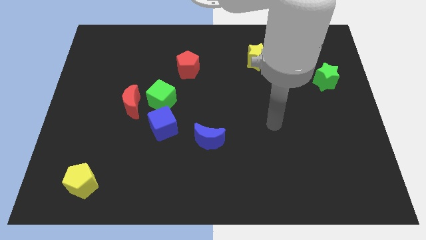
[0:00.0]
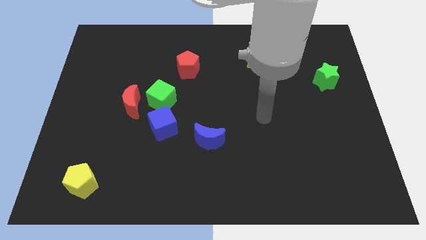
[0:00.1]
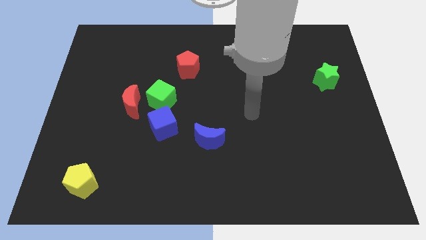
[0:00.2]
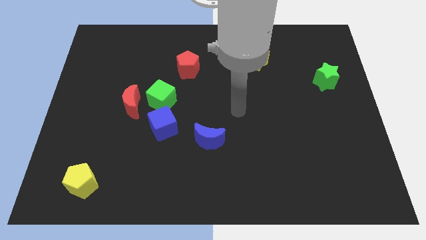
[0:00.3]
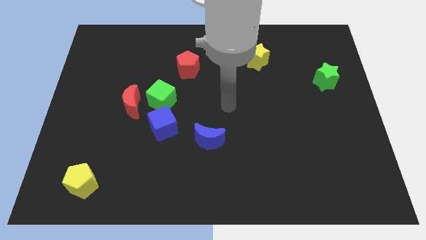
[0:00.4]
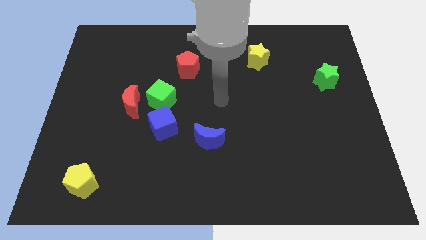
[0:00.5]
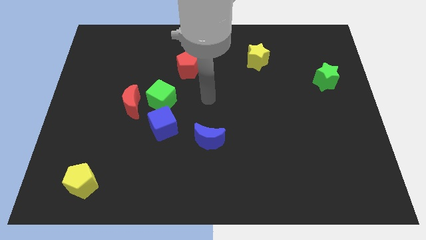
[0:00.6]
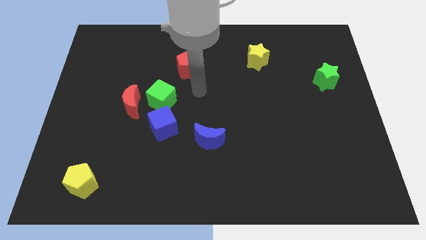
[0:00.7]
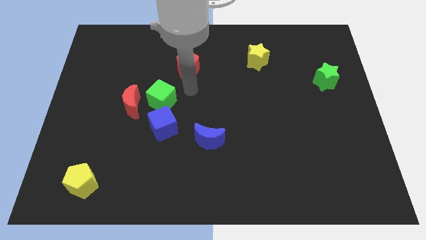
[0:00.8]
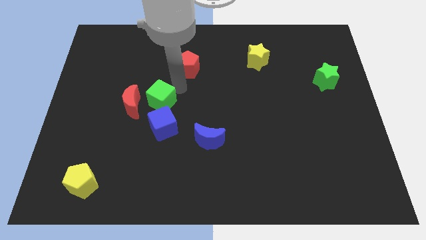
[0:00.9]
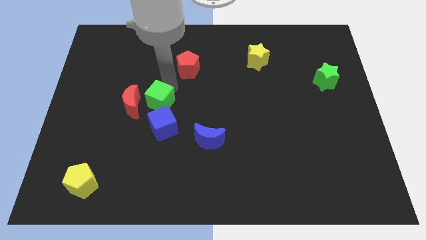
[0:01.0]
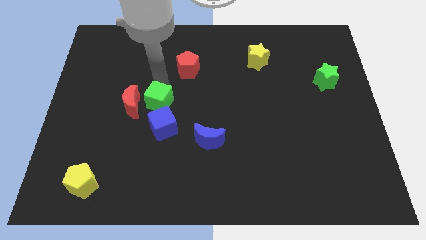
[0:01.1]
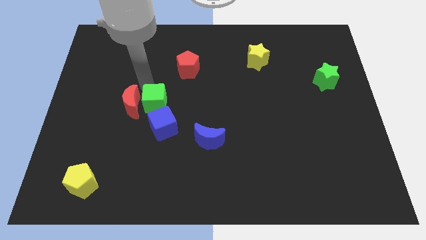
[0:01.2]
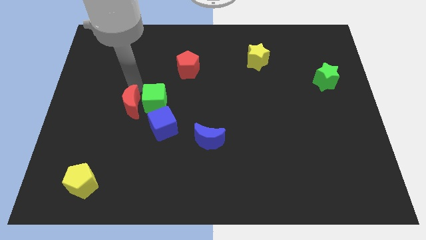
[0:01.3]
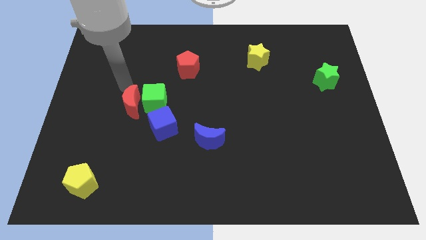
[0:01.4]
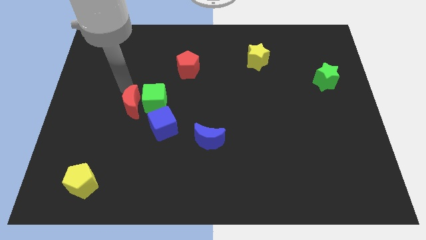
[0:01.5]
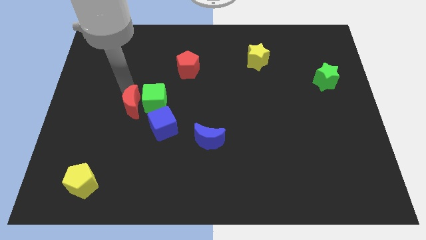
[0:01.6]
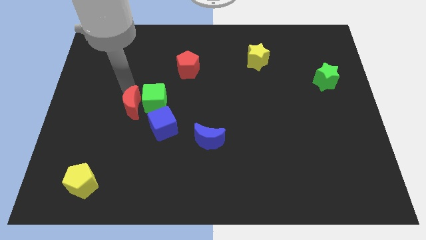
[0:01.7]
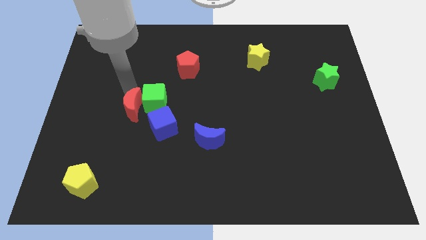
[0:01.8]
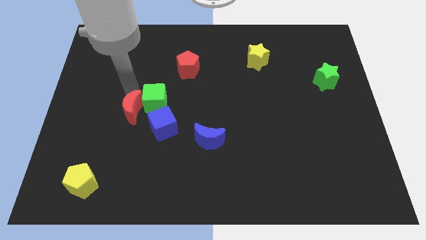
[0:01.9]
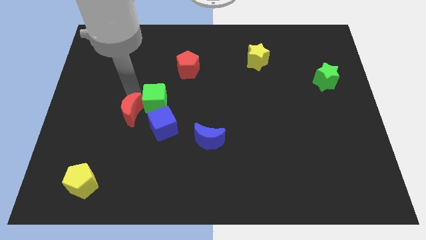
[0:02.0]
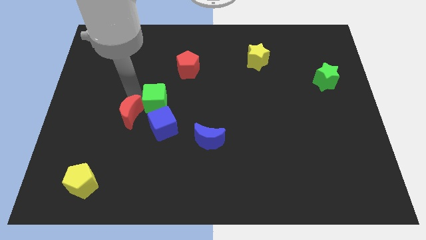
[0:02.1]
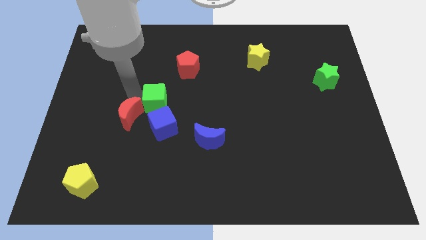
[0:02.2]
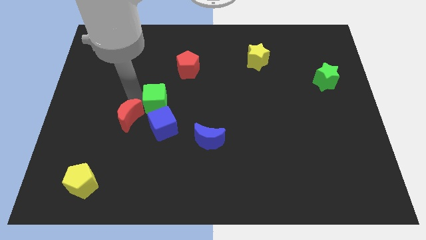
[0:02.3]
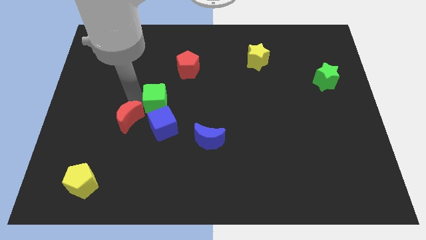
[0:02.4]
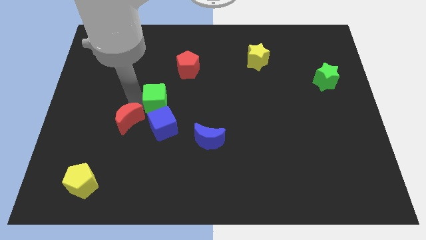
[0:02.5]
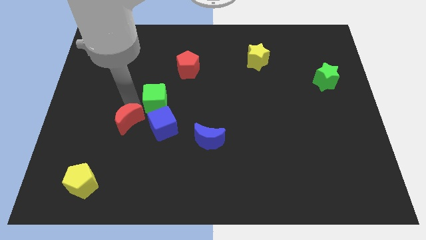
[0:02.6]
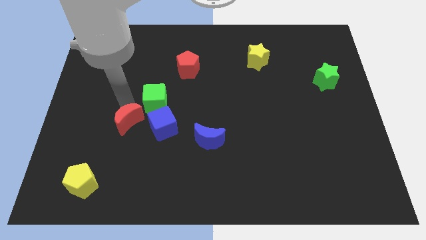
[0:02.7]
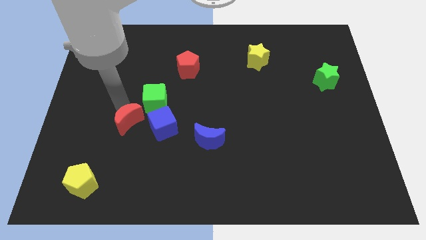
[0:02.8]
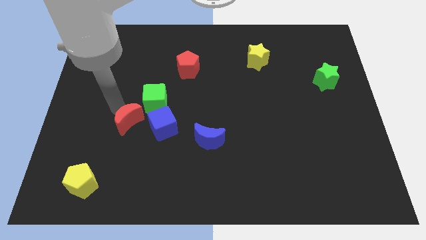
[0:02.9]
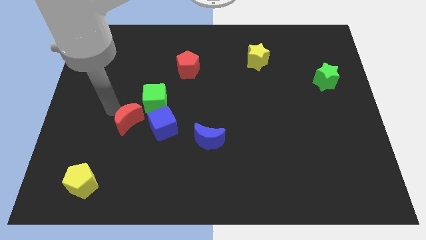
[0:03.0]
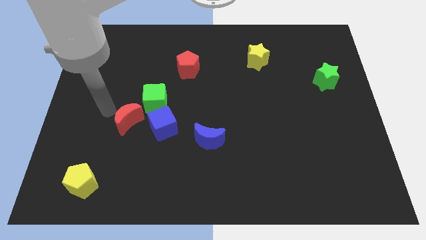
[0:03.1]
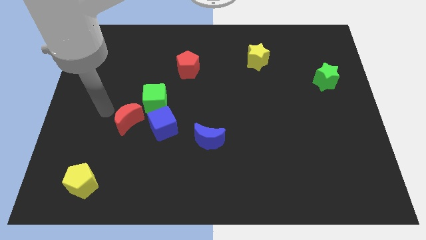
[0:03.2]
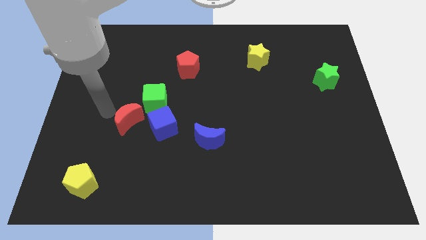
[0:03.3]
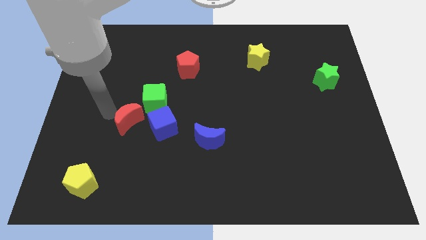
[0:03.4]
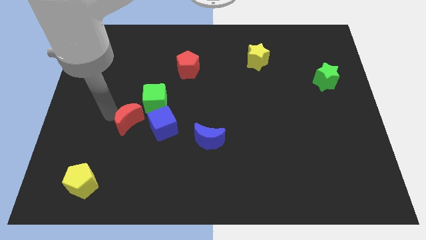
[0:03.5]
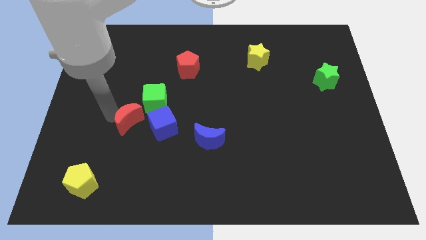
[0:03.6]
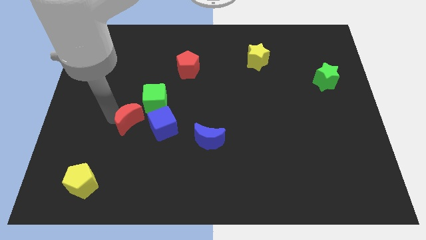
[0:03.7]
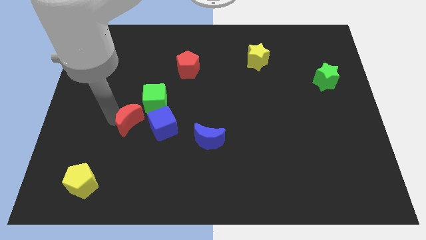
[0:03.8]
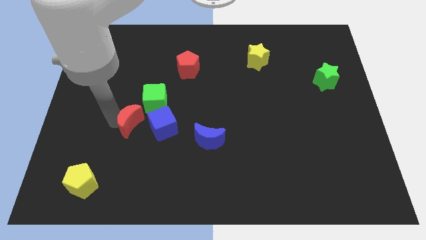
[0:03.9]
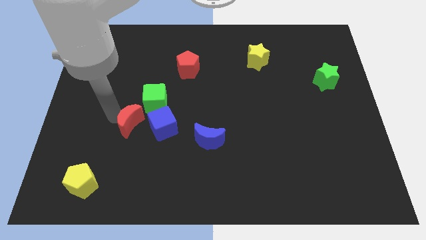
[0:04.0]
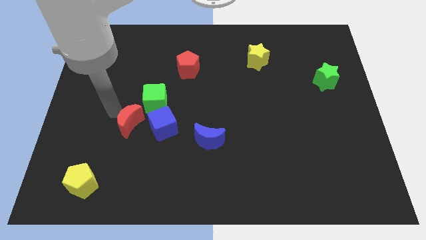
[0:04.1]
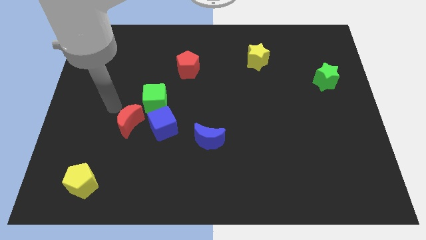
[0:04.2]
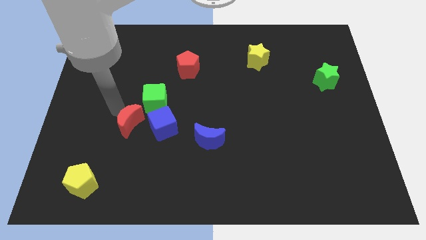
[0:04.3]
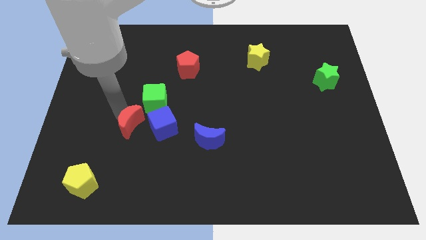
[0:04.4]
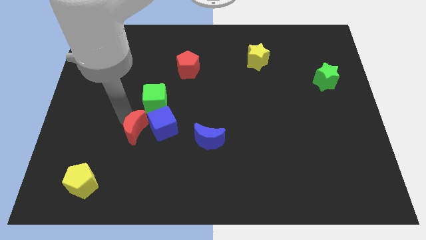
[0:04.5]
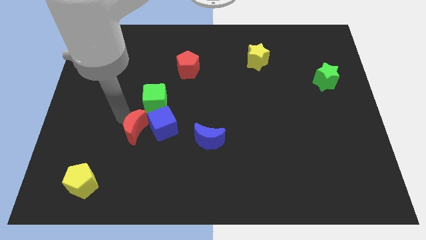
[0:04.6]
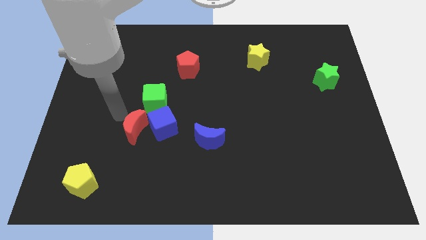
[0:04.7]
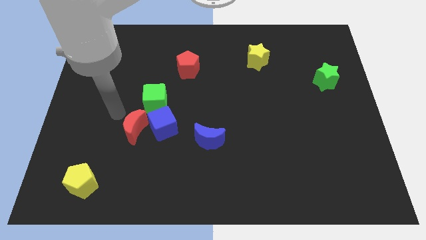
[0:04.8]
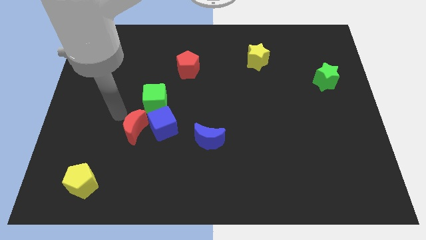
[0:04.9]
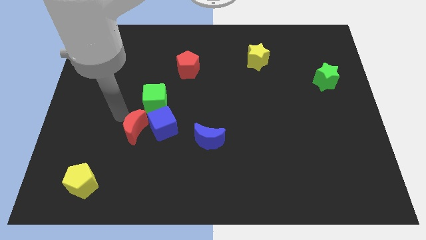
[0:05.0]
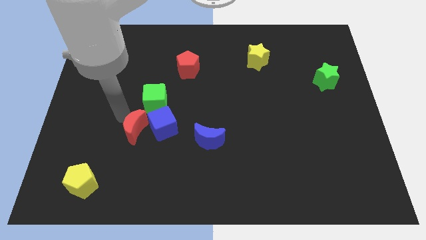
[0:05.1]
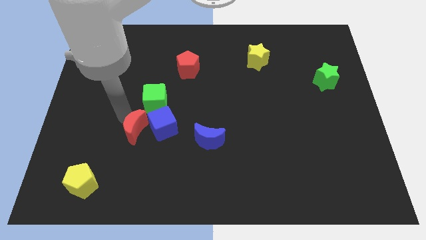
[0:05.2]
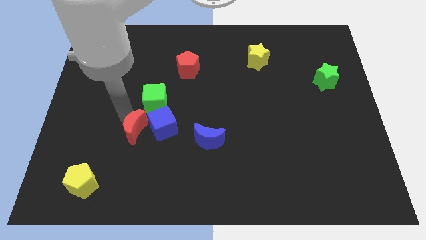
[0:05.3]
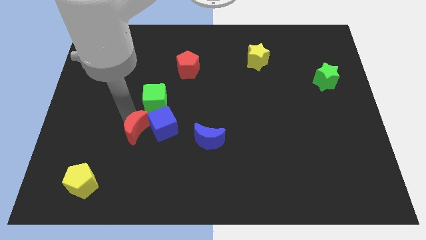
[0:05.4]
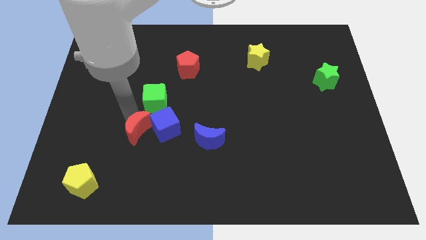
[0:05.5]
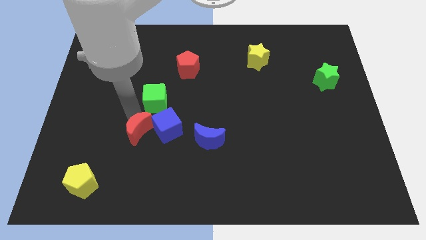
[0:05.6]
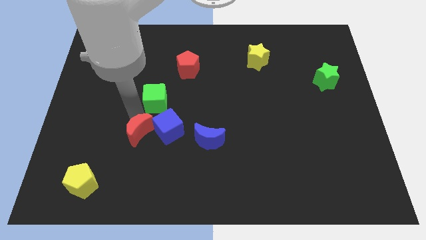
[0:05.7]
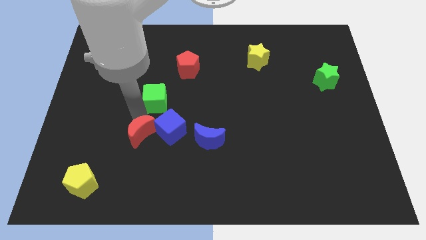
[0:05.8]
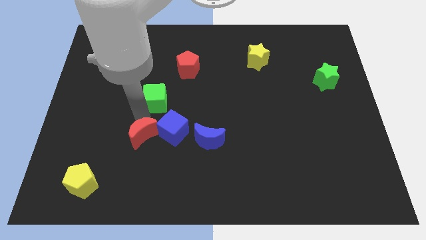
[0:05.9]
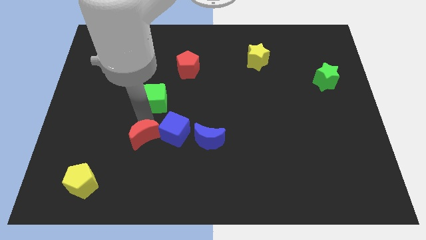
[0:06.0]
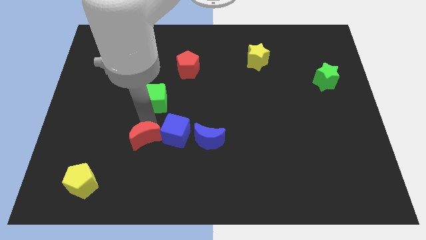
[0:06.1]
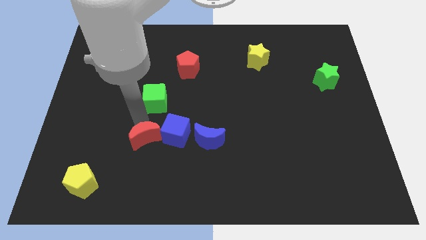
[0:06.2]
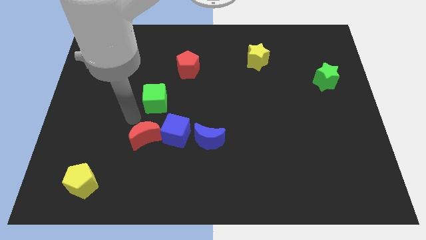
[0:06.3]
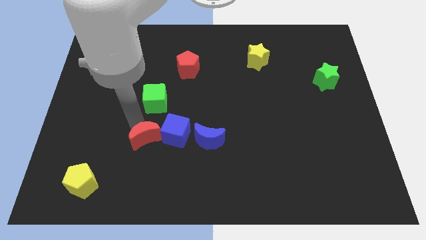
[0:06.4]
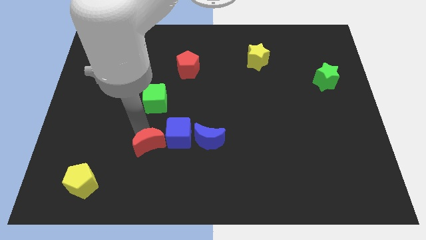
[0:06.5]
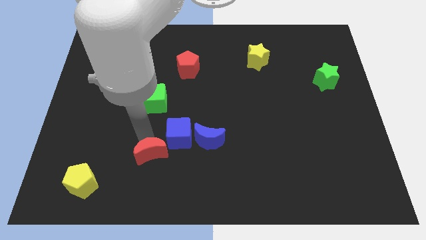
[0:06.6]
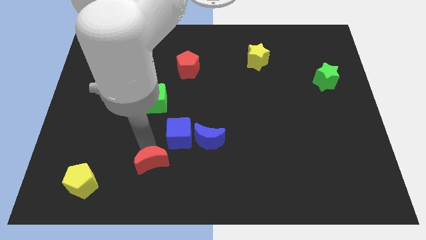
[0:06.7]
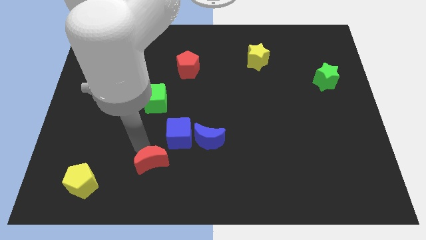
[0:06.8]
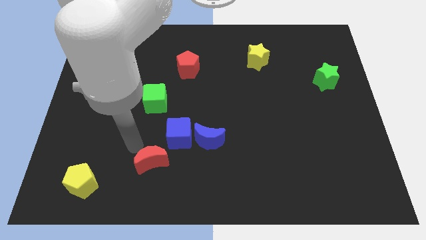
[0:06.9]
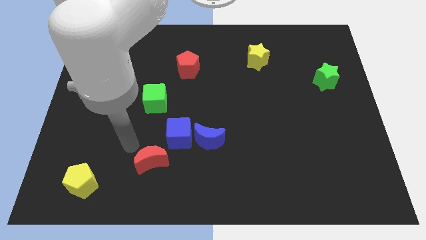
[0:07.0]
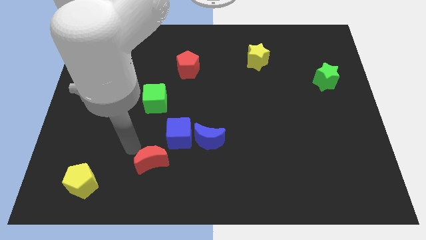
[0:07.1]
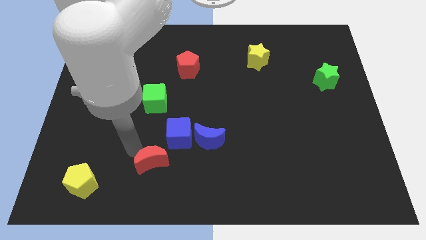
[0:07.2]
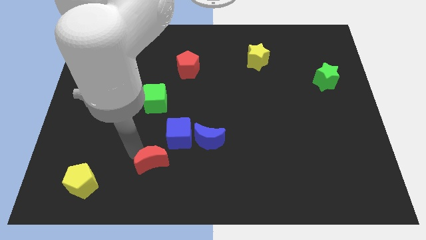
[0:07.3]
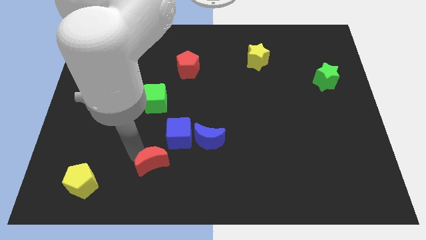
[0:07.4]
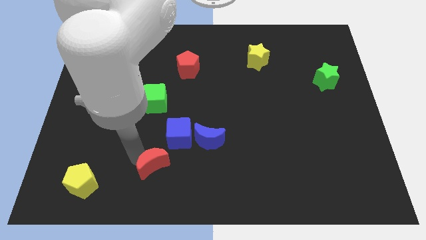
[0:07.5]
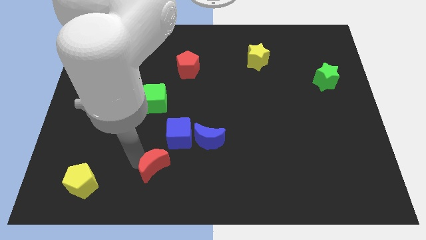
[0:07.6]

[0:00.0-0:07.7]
slide the red moon to the bottom side of the blue cube
